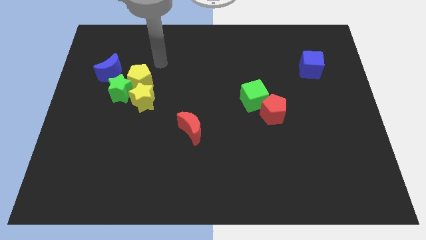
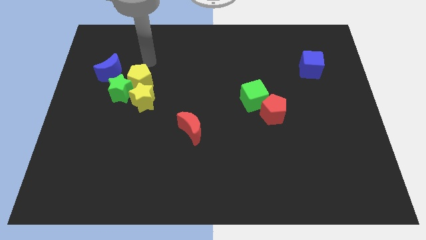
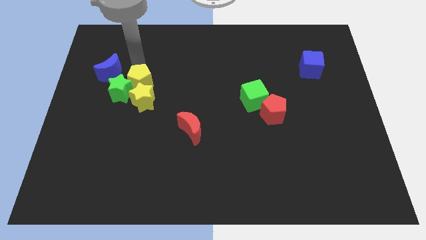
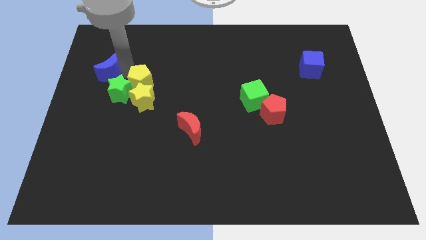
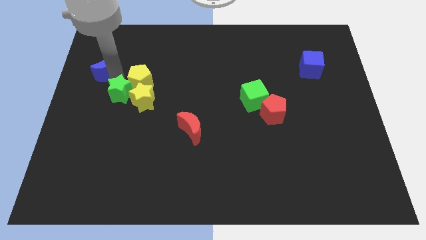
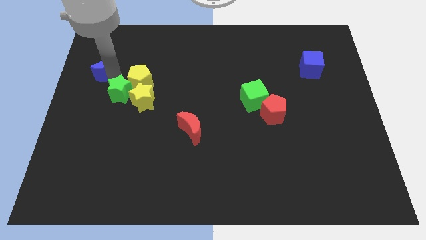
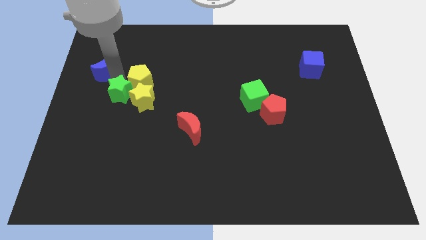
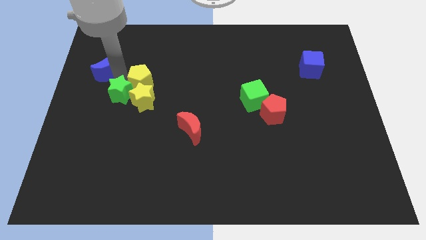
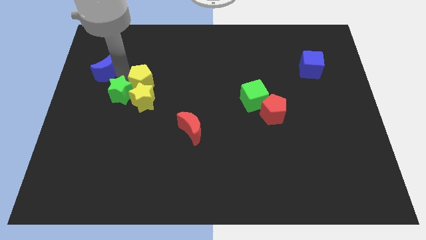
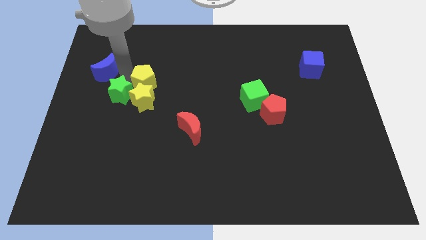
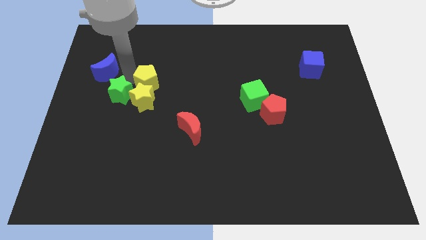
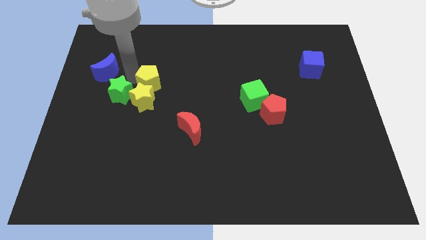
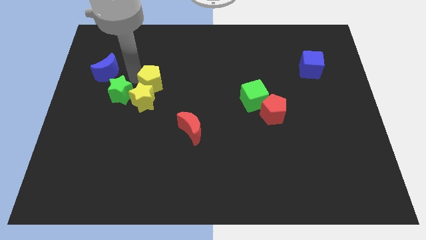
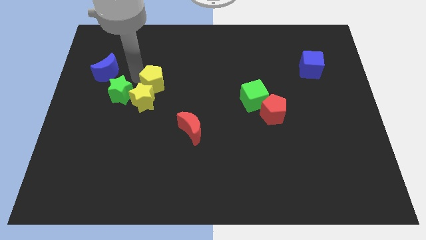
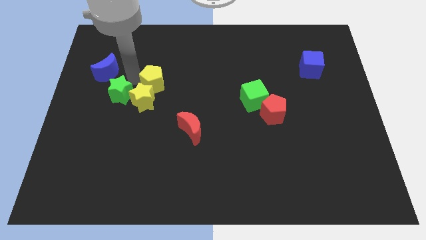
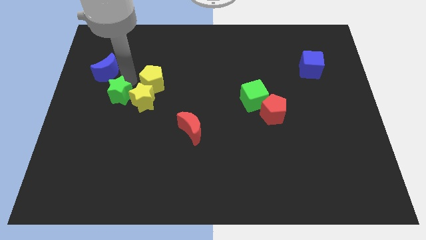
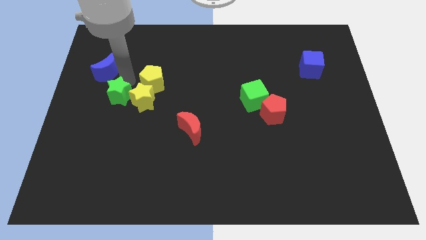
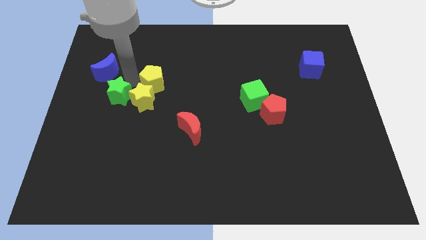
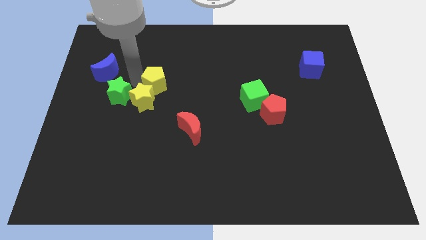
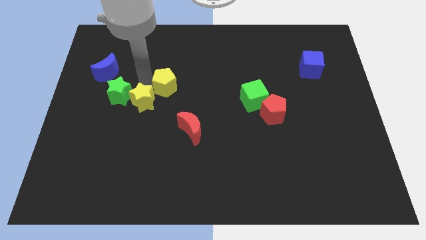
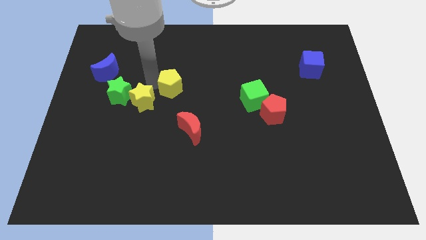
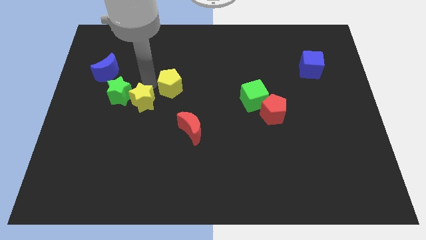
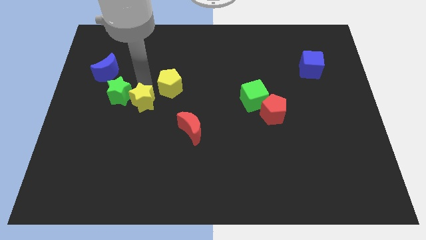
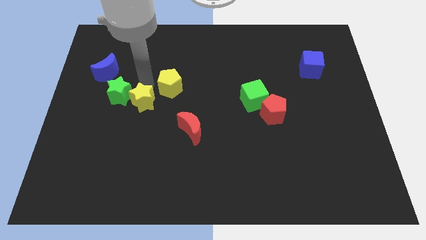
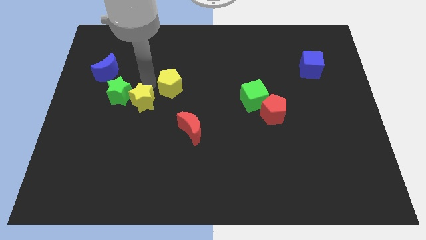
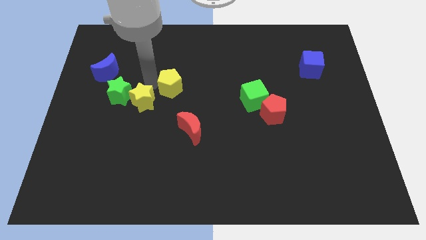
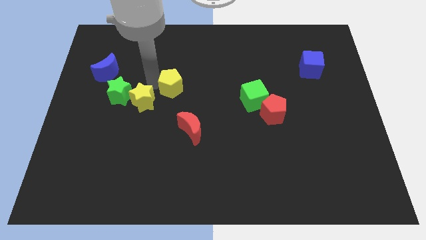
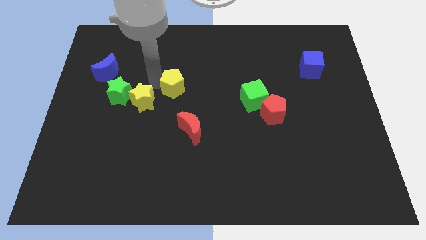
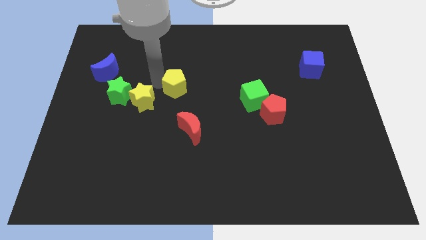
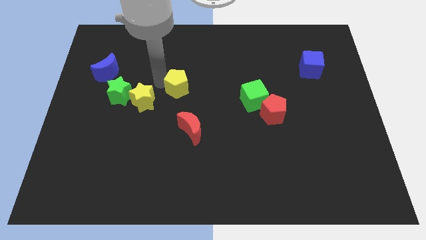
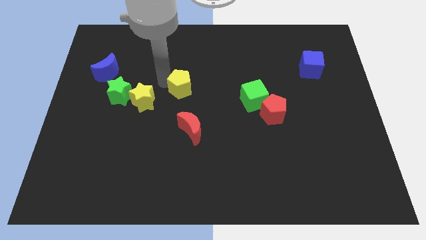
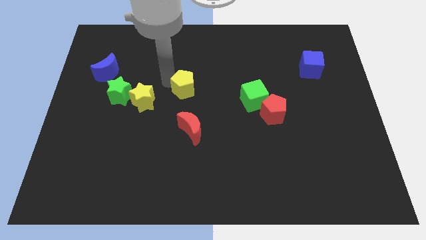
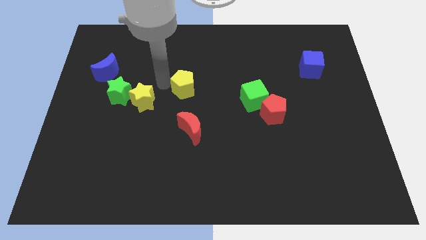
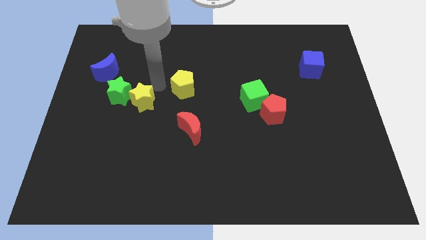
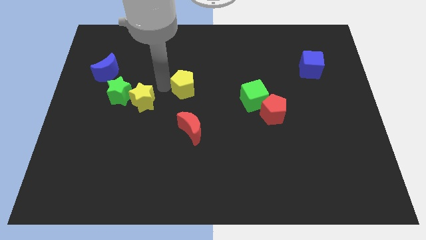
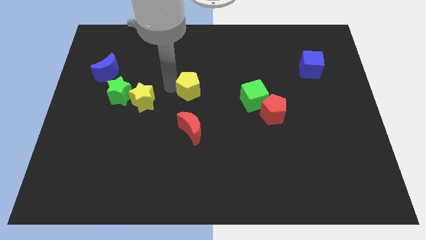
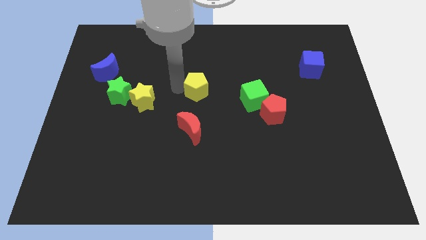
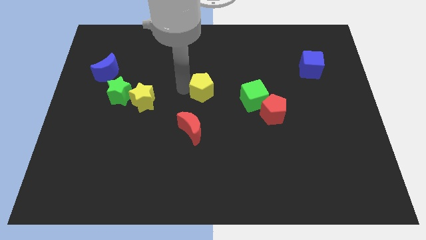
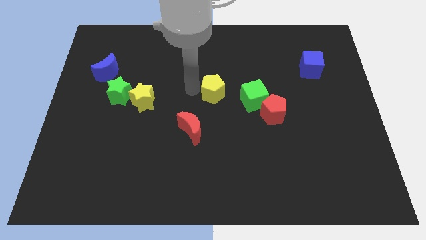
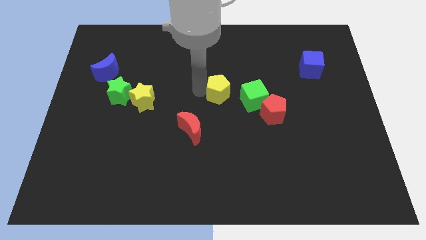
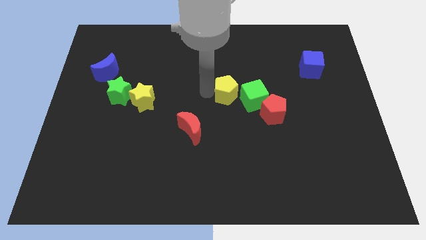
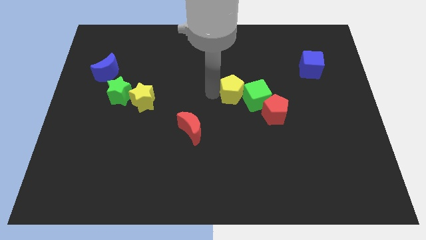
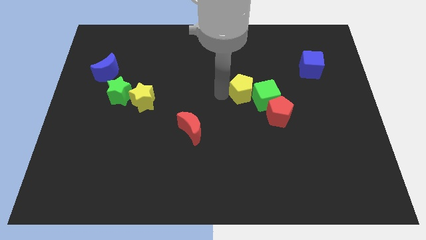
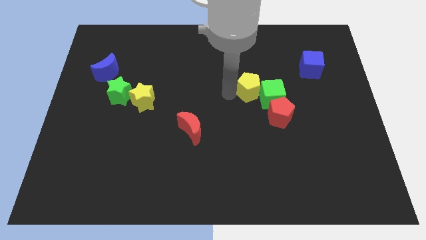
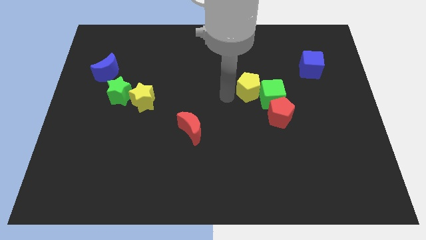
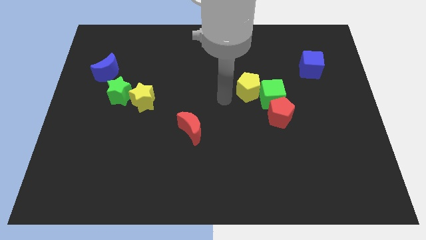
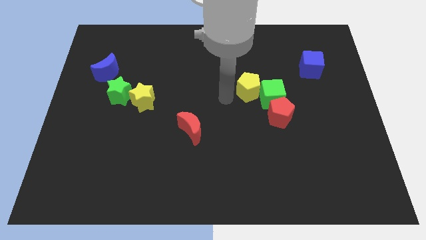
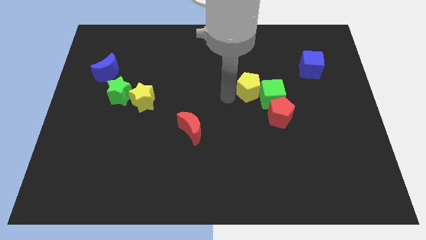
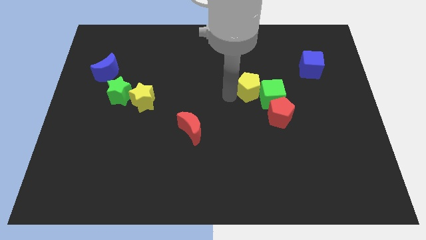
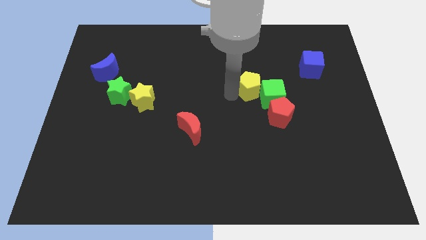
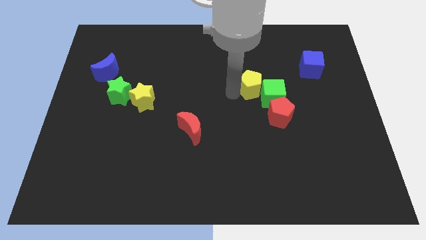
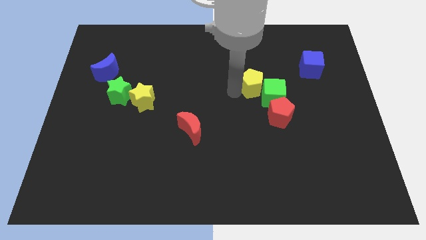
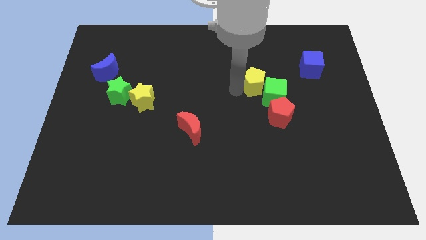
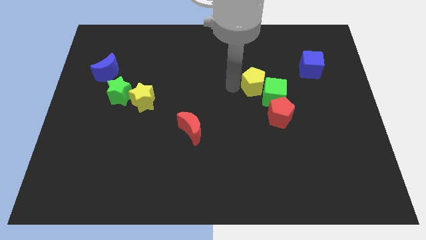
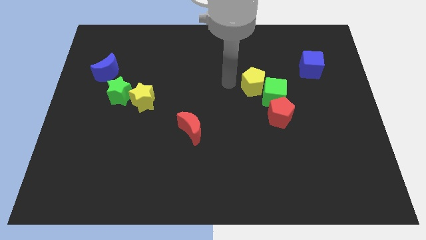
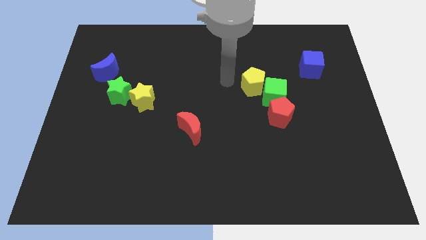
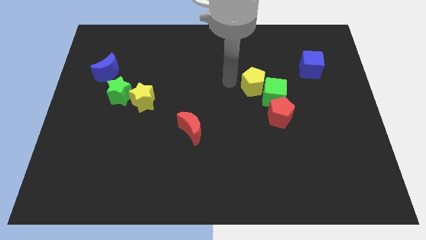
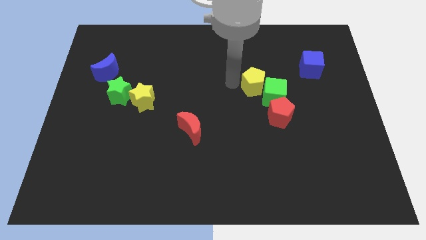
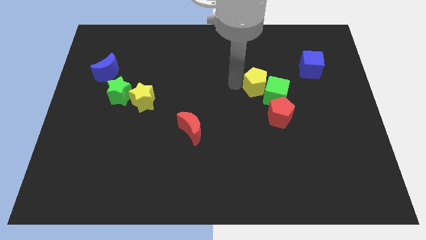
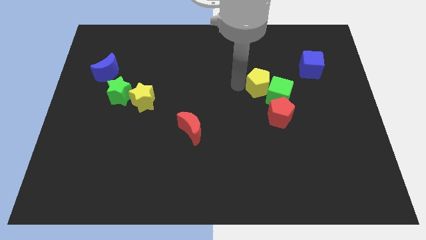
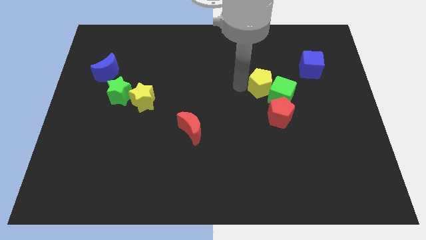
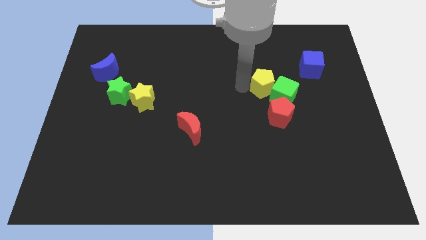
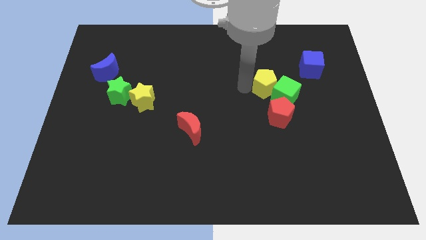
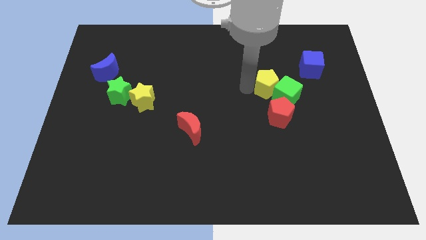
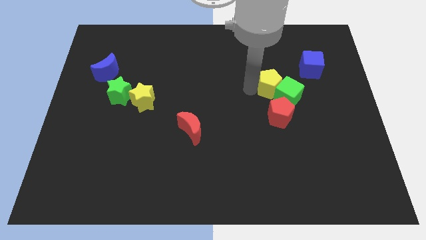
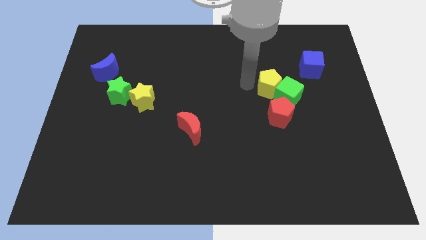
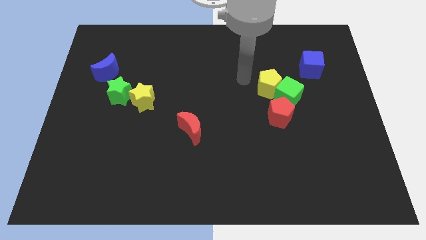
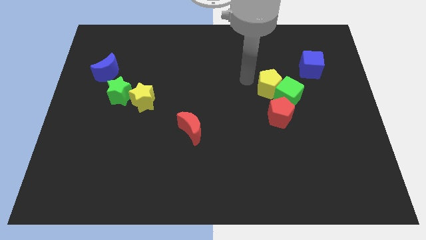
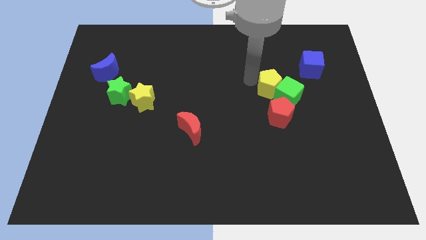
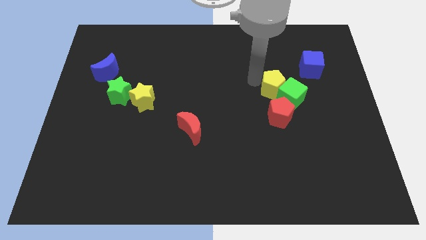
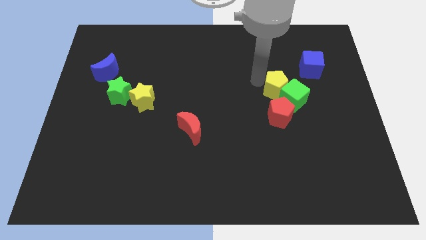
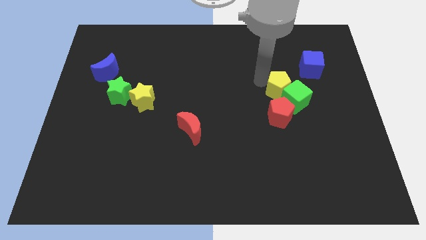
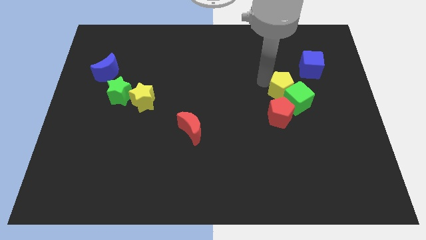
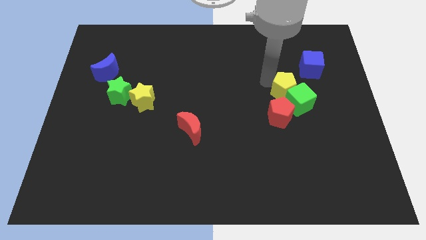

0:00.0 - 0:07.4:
put the yellow pentagon diagonally up and to the right of the red pentagon

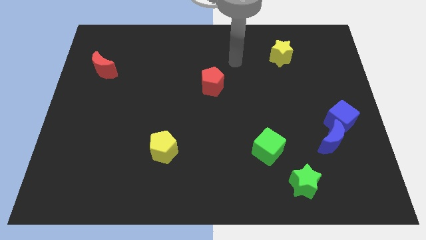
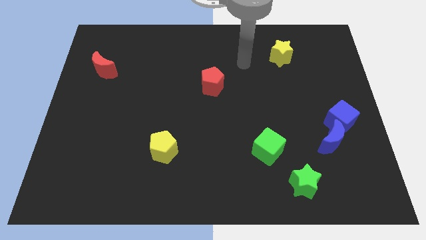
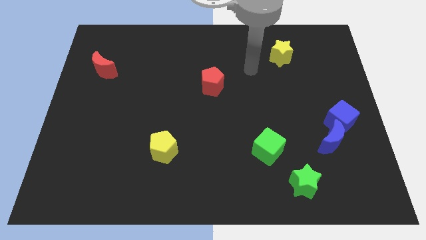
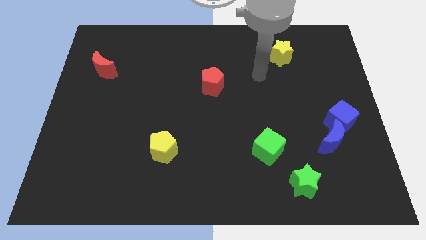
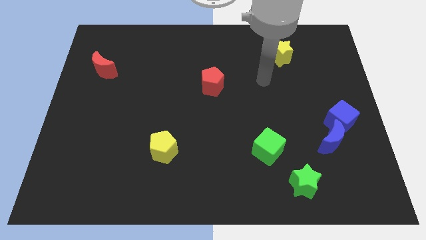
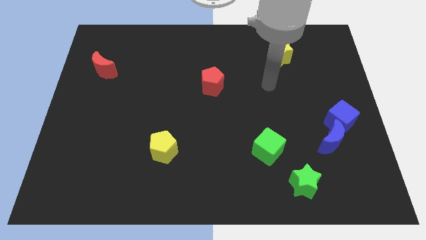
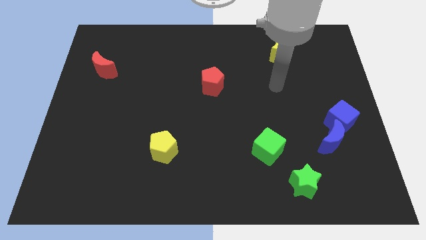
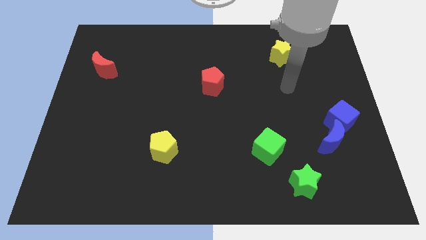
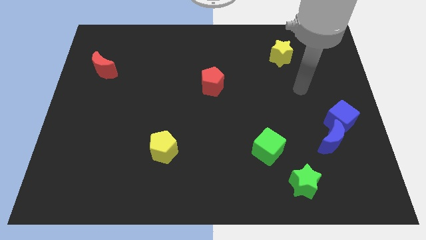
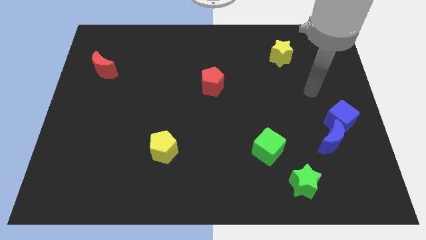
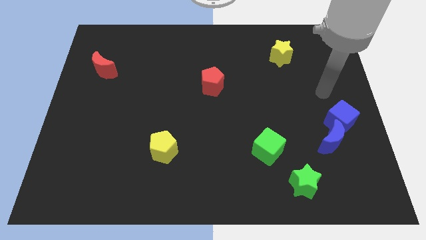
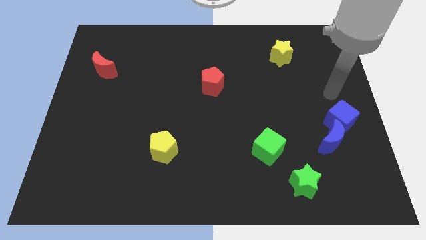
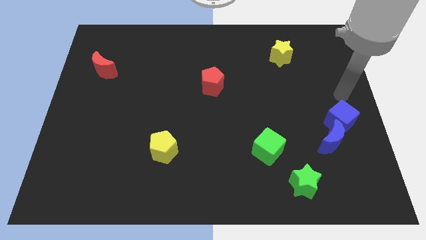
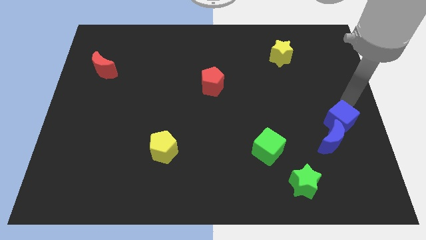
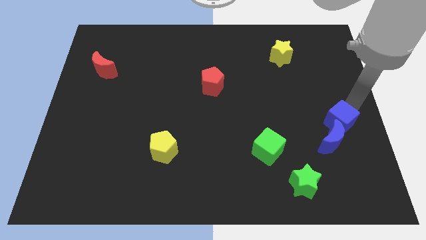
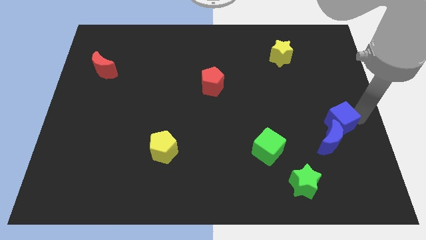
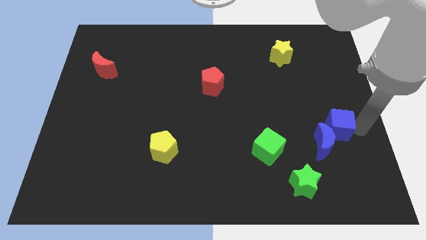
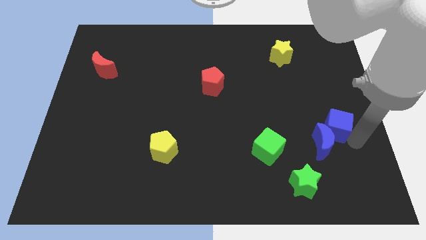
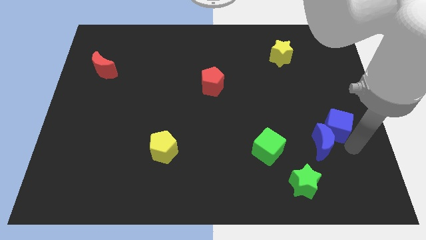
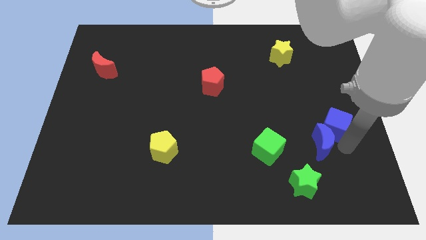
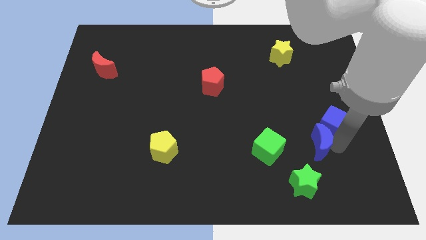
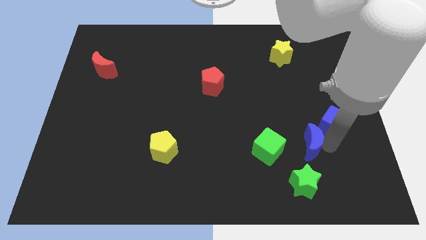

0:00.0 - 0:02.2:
slide the blue moon to the top side of the green star
